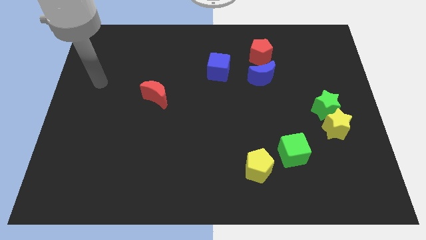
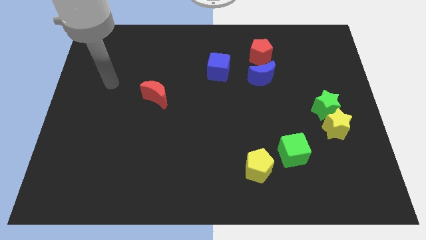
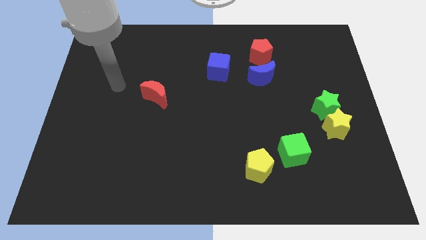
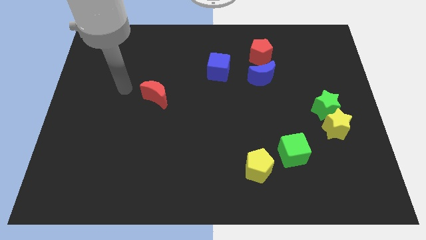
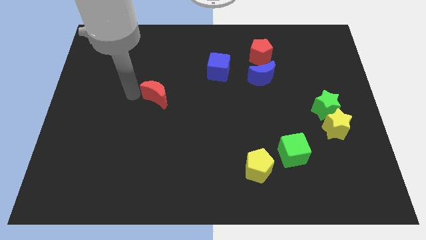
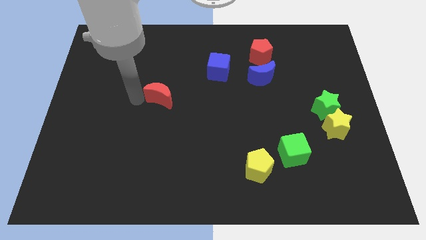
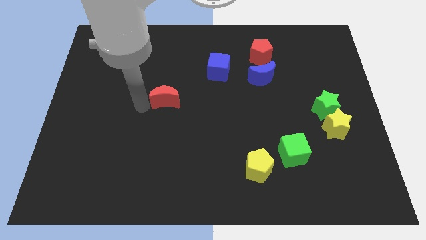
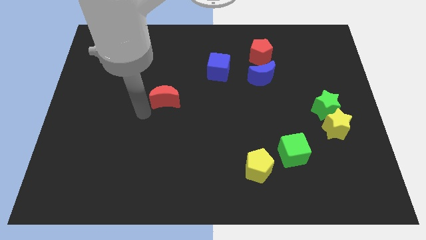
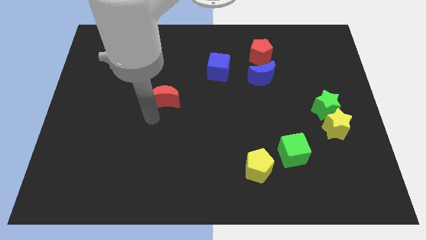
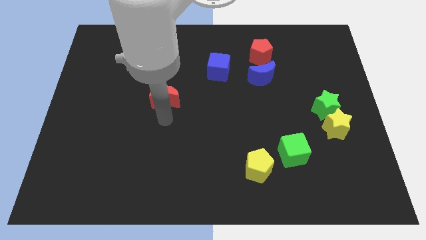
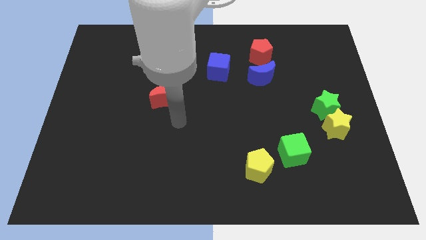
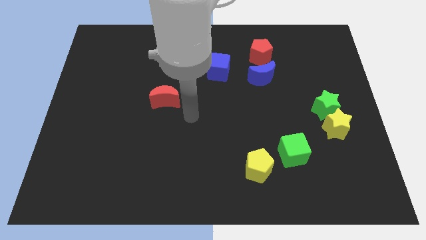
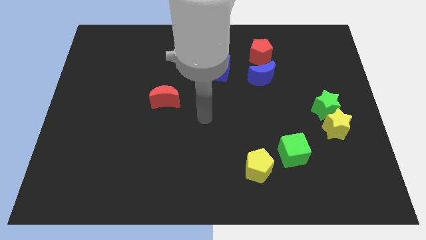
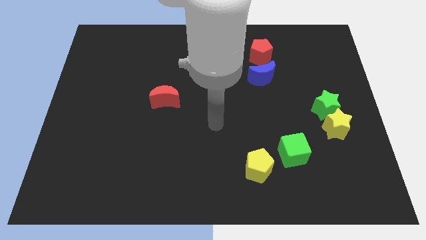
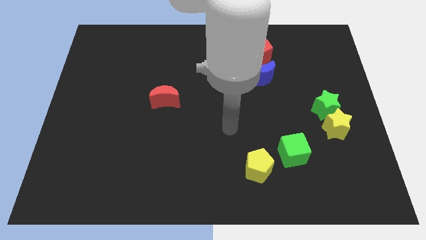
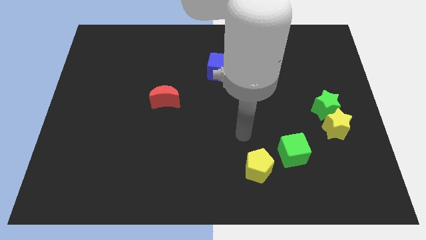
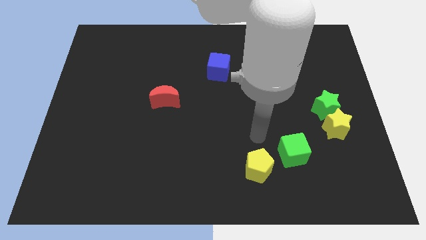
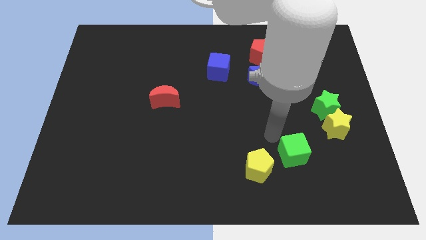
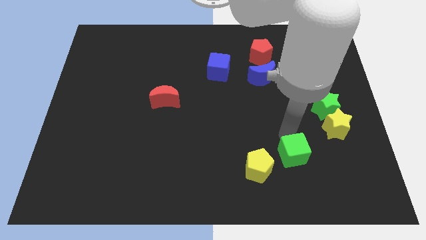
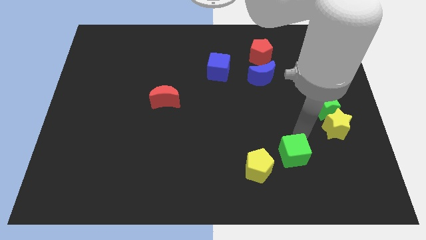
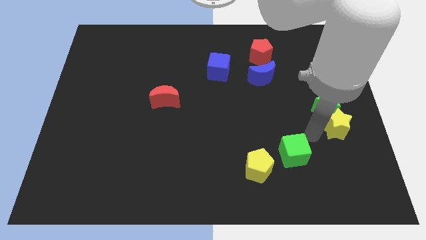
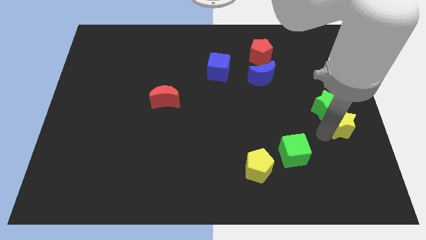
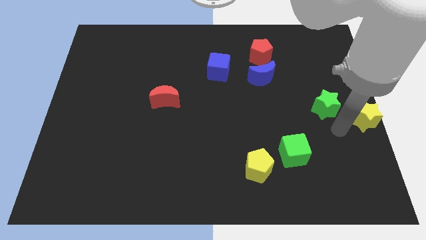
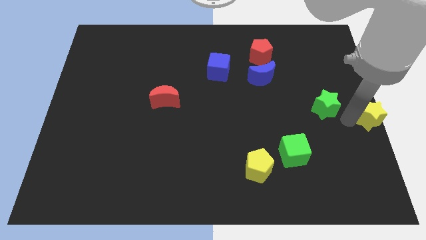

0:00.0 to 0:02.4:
pull the green star apart from the yellow star

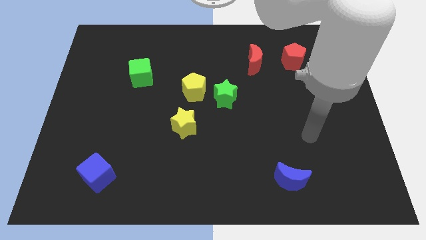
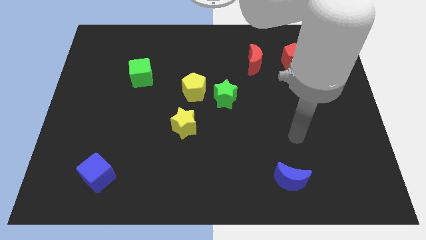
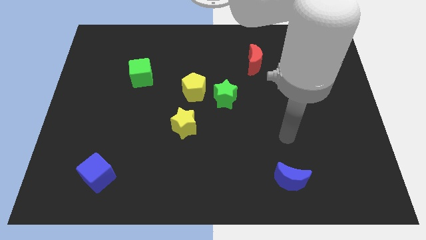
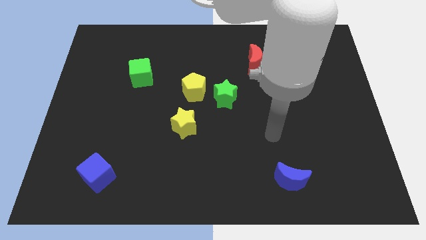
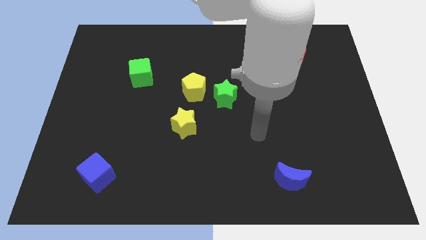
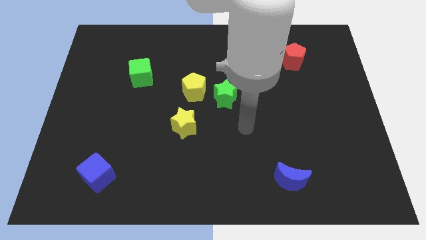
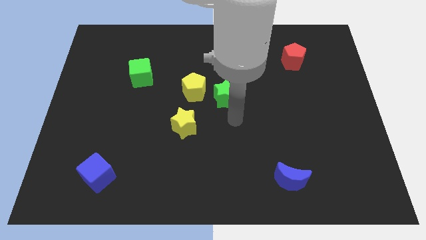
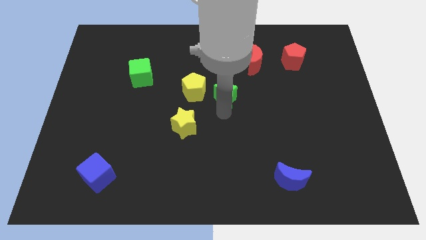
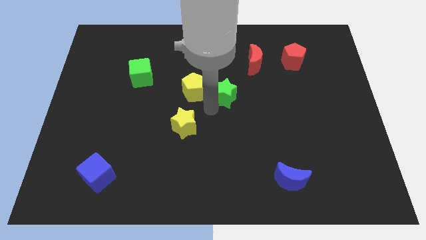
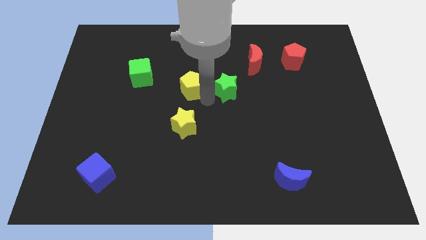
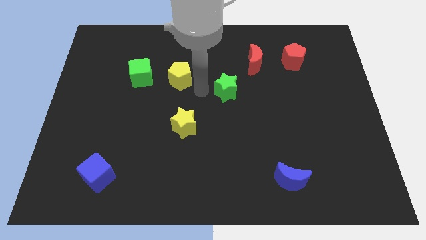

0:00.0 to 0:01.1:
separate the green star from the yellow pentagon

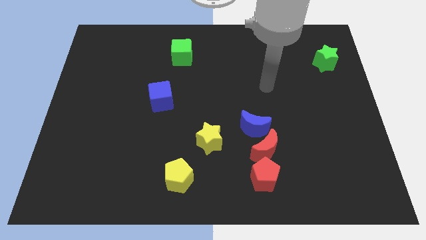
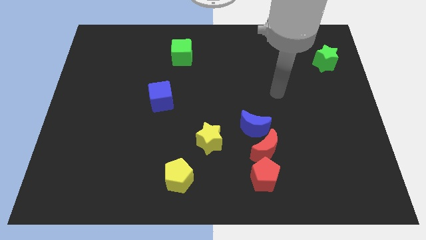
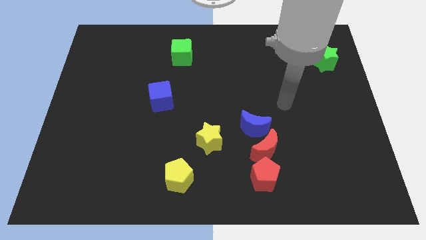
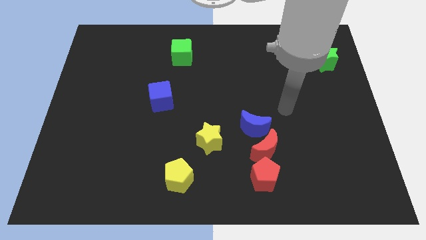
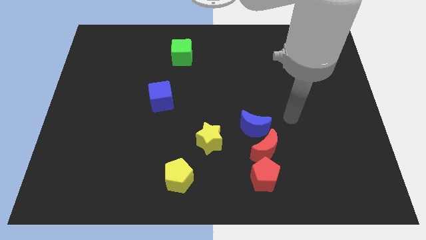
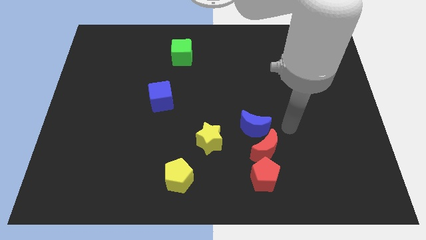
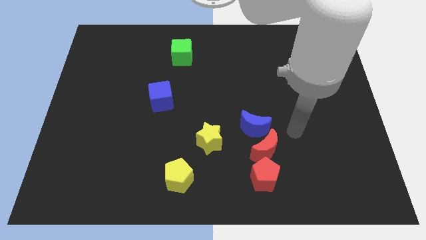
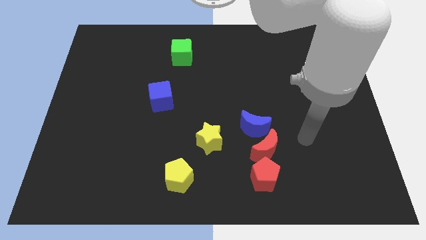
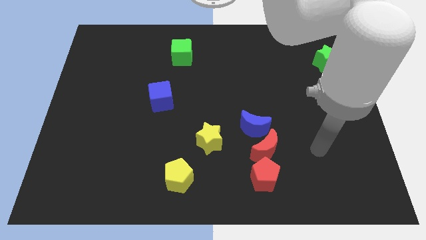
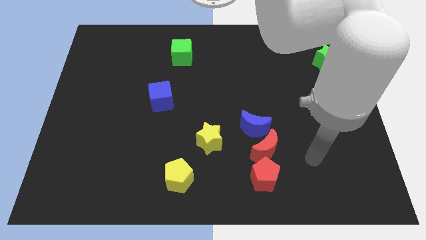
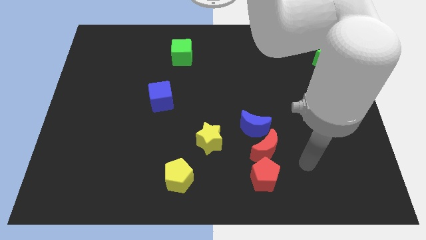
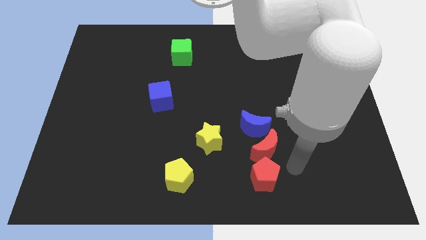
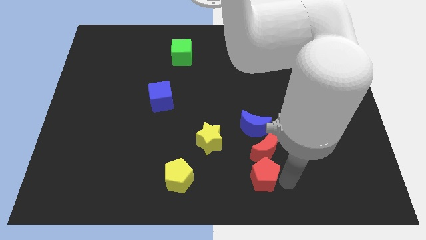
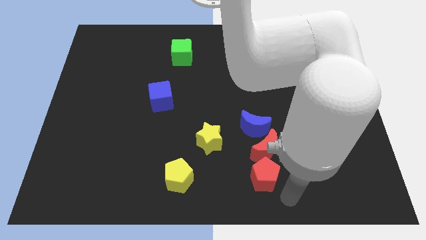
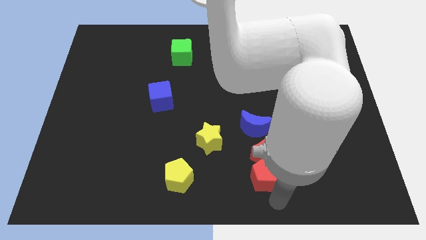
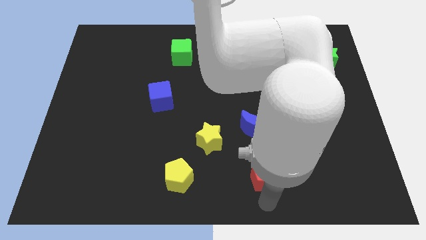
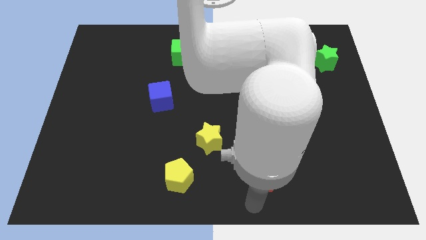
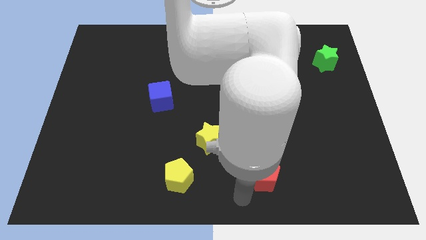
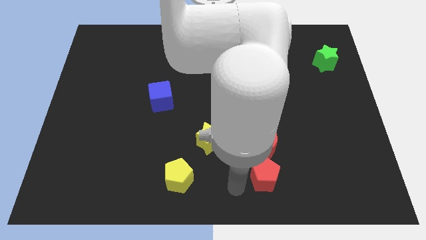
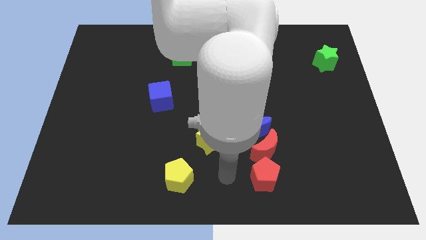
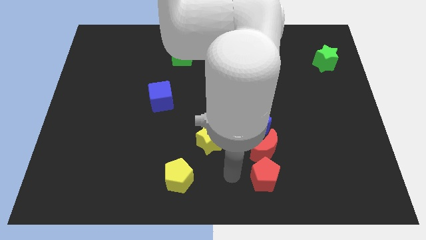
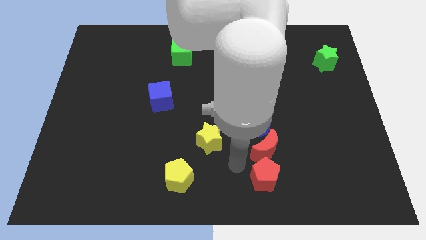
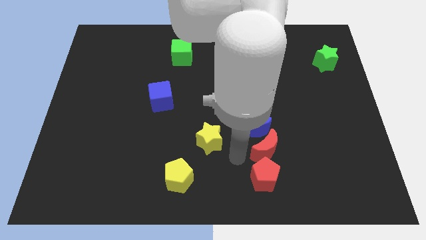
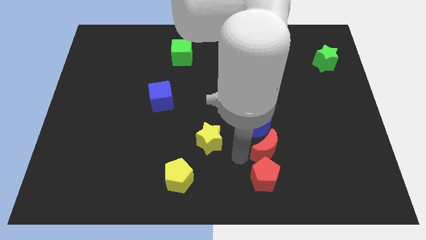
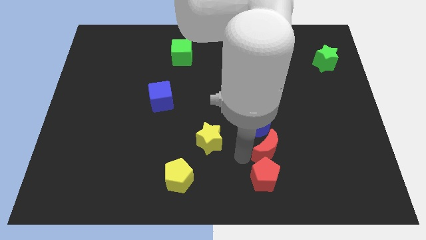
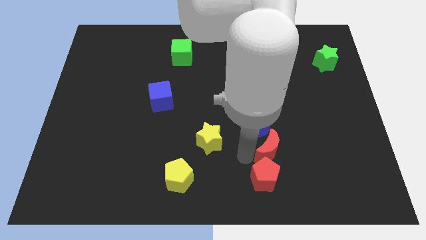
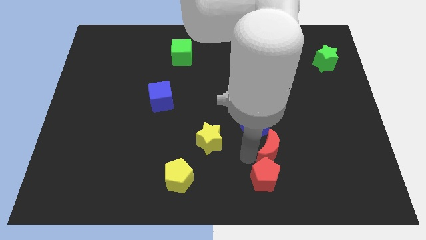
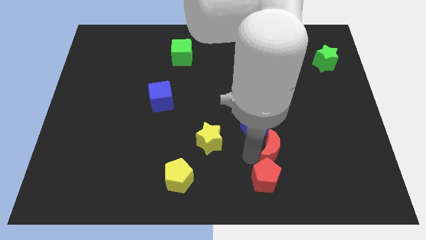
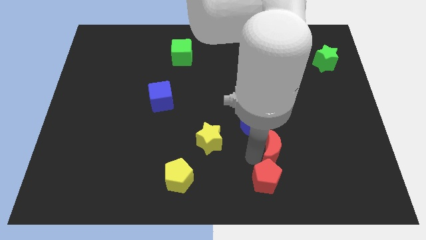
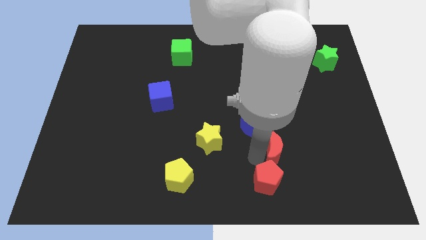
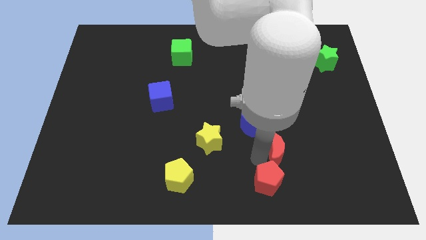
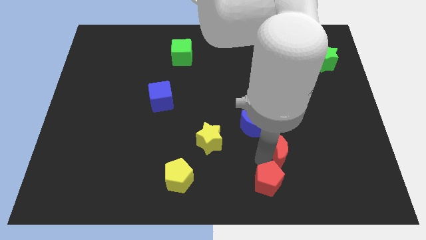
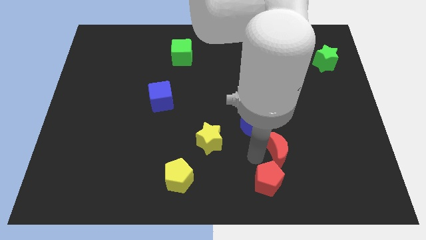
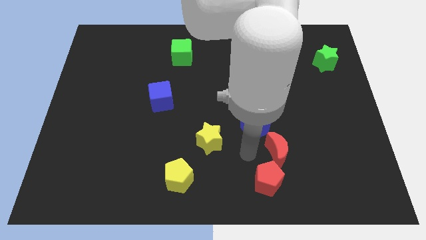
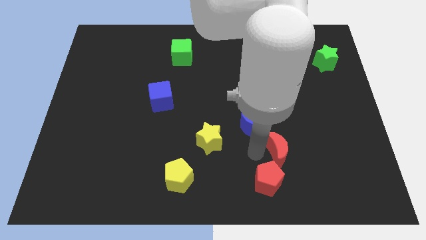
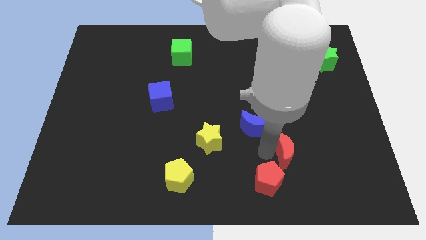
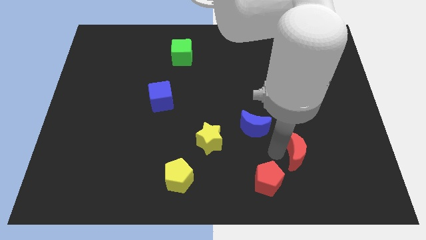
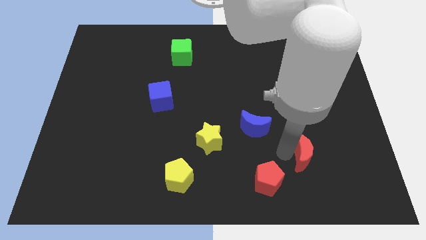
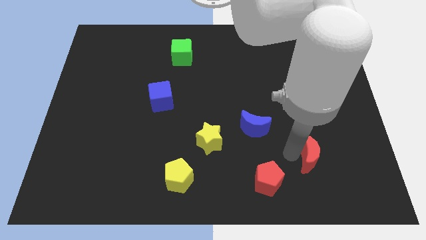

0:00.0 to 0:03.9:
separate the red moon from the blue moon and red pentagon

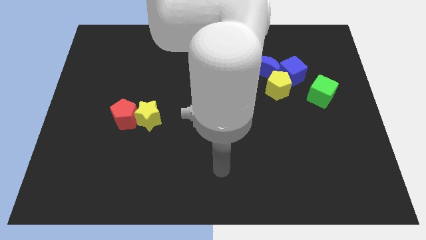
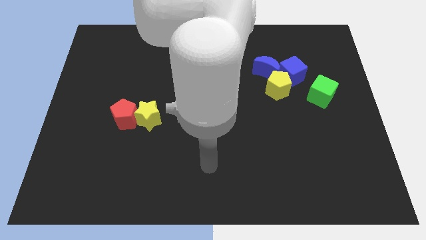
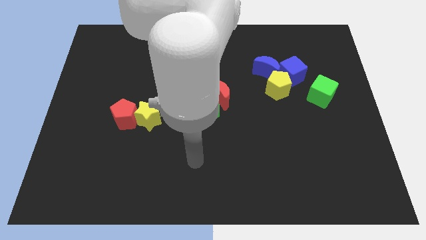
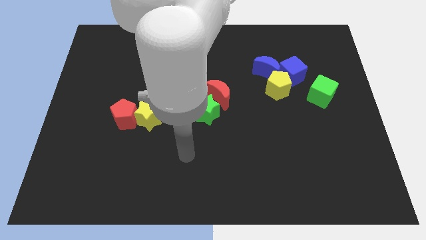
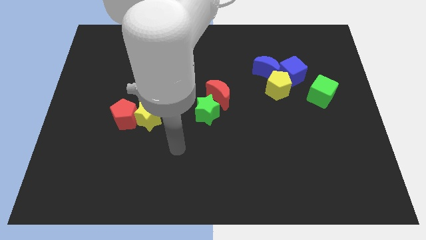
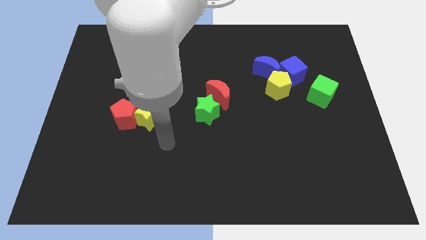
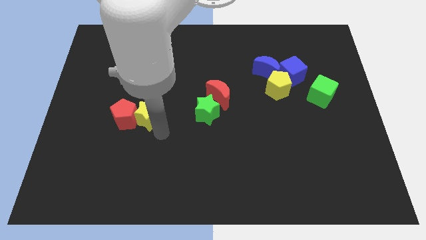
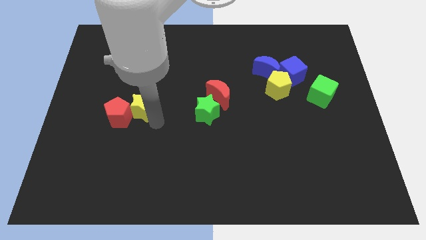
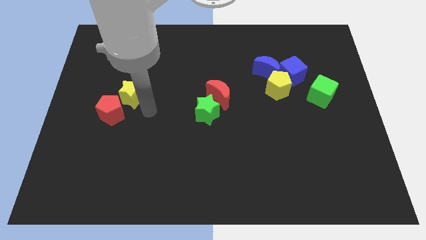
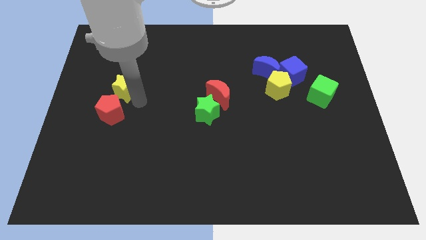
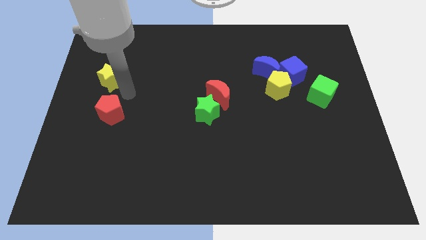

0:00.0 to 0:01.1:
pull the red pentagon apart from the yellow star

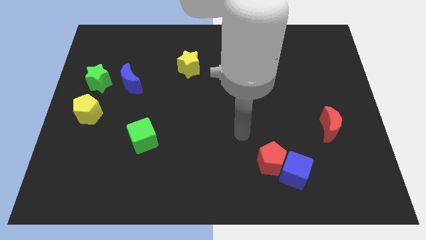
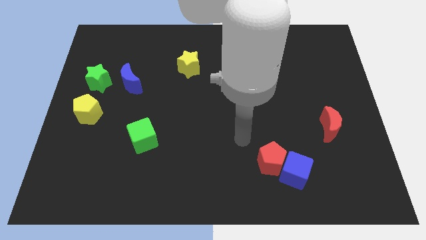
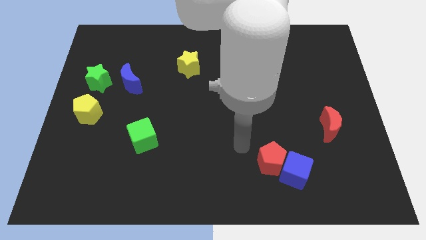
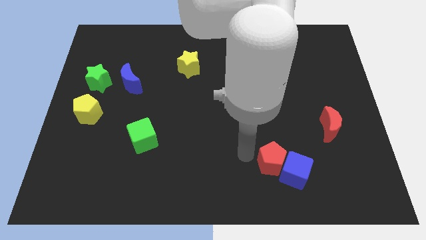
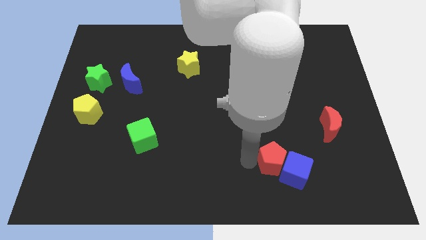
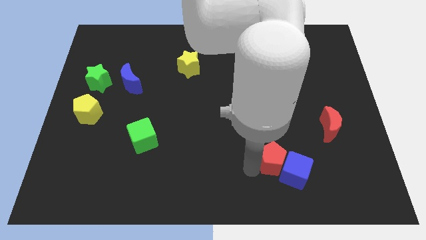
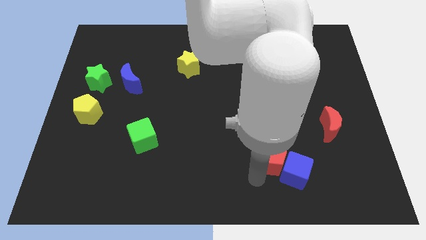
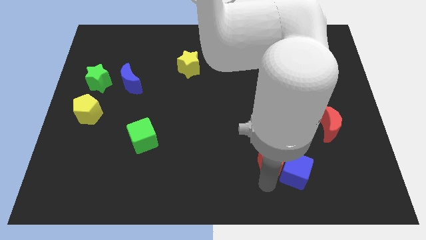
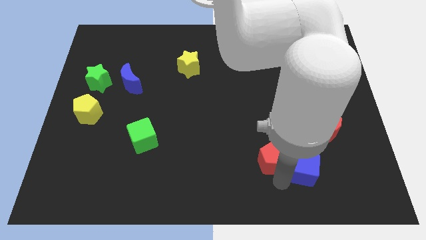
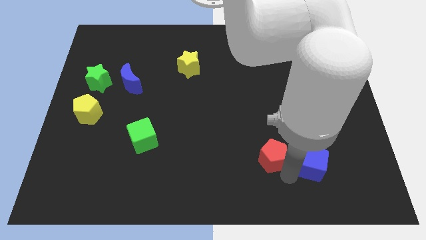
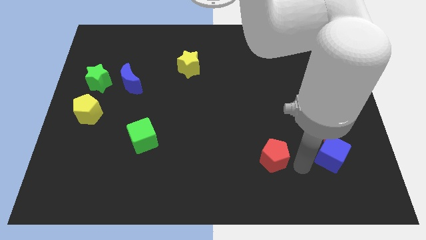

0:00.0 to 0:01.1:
separate the red pentagon from the blue cube
